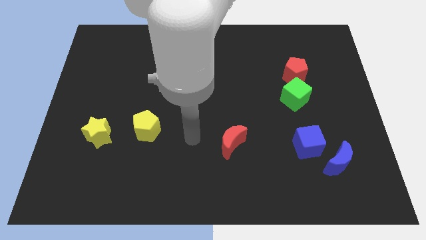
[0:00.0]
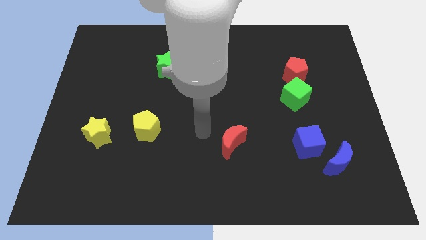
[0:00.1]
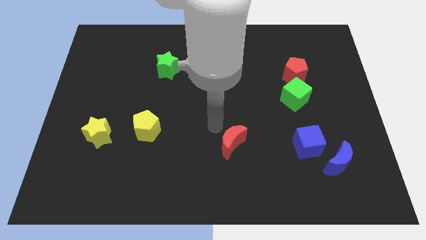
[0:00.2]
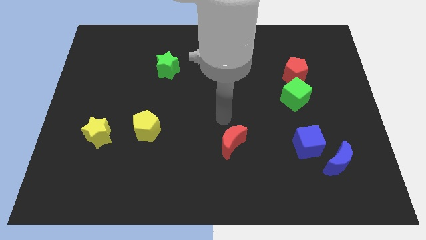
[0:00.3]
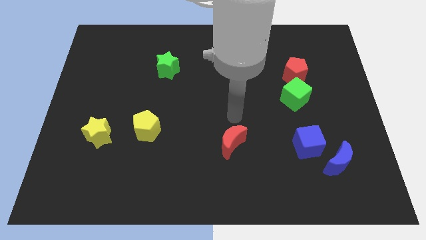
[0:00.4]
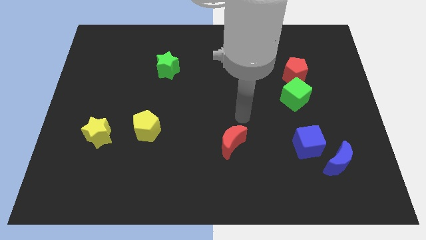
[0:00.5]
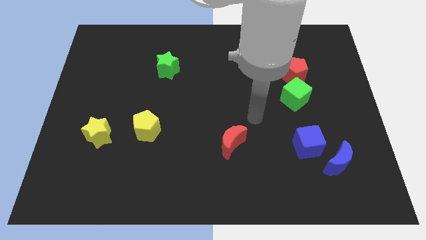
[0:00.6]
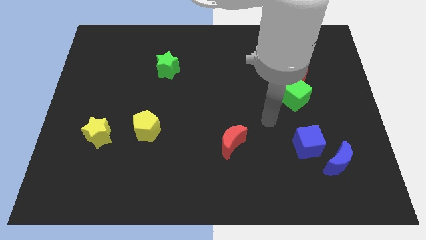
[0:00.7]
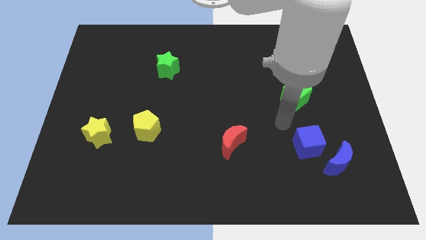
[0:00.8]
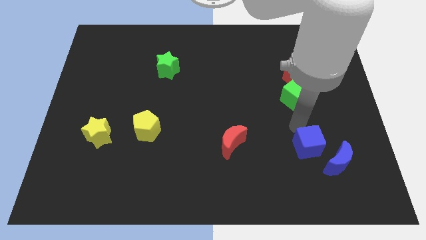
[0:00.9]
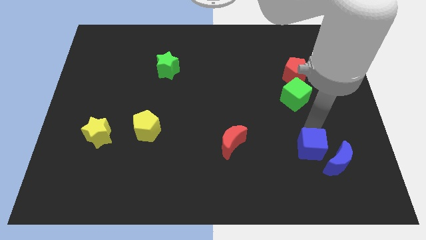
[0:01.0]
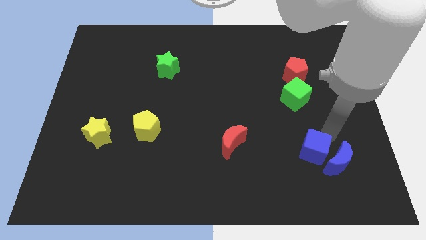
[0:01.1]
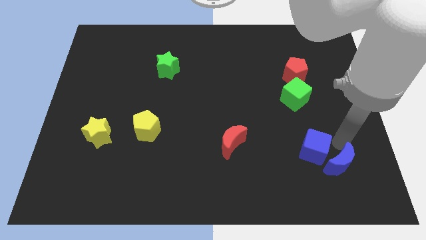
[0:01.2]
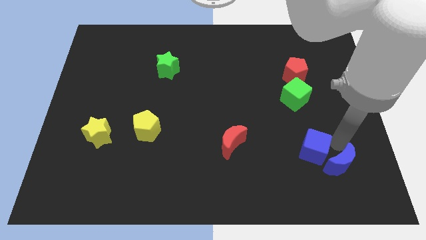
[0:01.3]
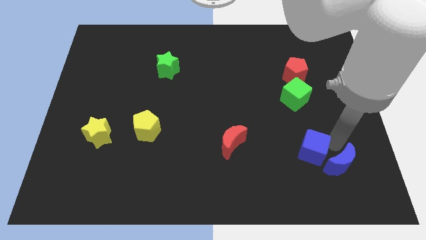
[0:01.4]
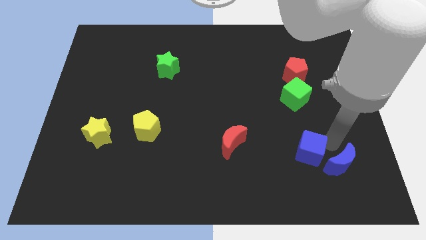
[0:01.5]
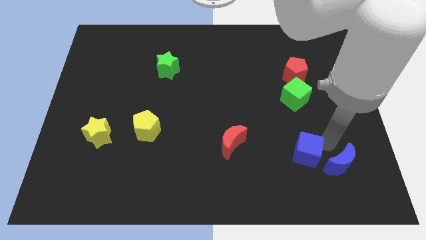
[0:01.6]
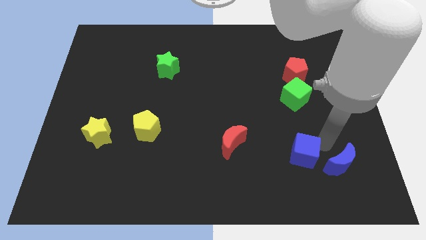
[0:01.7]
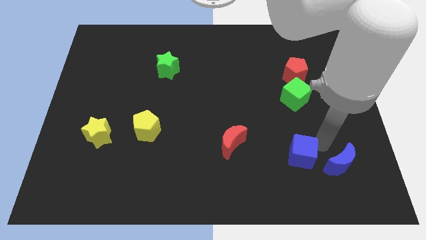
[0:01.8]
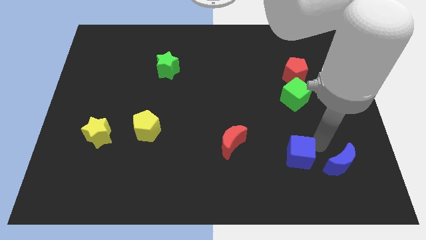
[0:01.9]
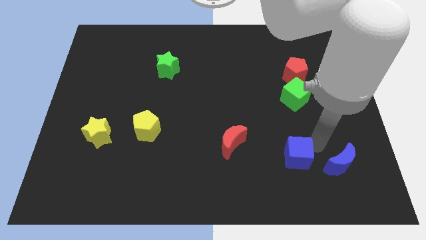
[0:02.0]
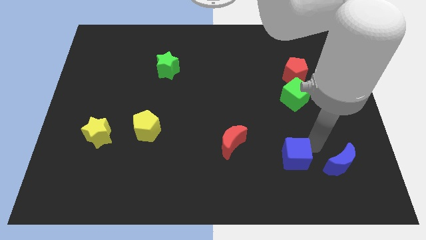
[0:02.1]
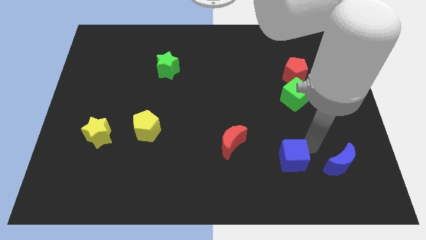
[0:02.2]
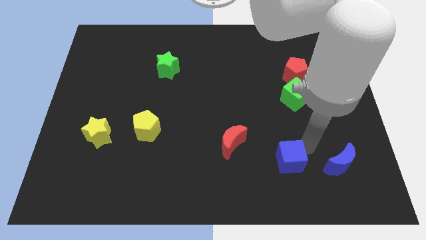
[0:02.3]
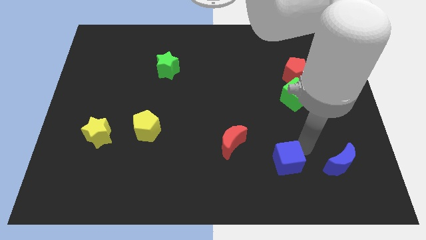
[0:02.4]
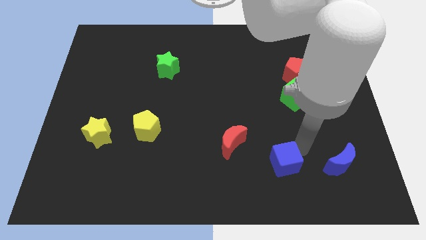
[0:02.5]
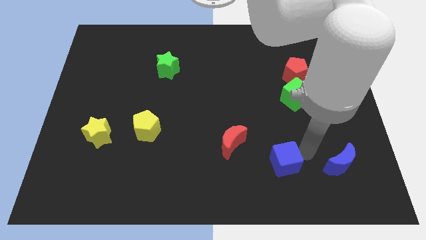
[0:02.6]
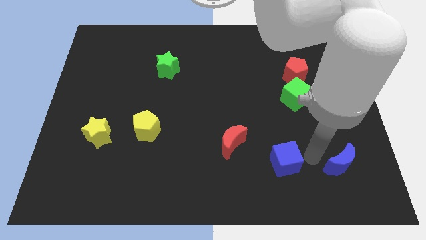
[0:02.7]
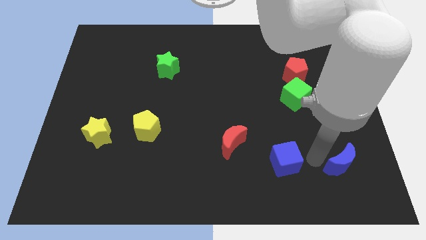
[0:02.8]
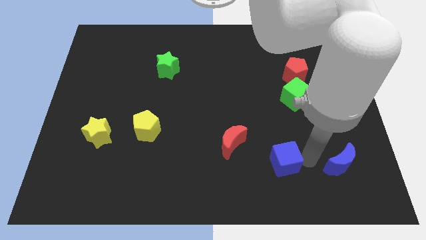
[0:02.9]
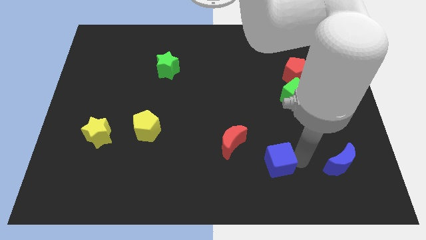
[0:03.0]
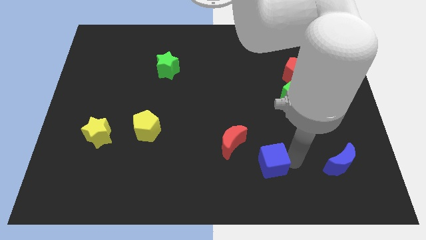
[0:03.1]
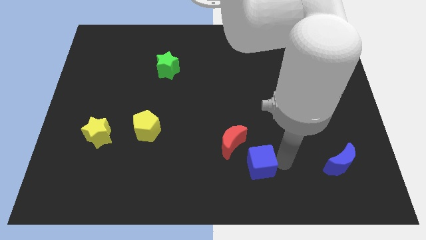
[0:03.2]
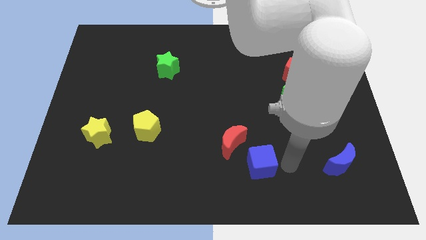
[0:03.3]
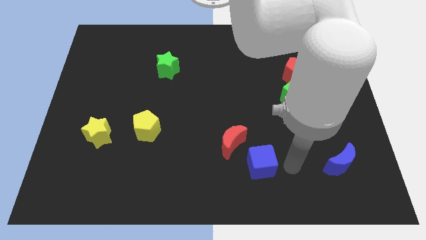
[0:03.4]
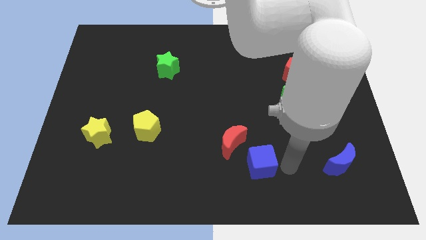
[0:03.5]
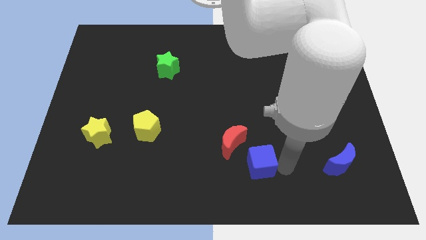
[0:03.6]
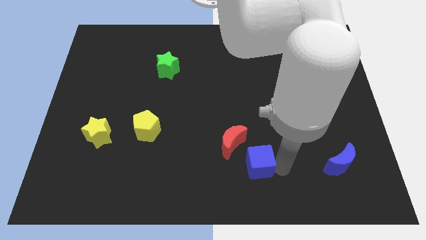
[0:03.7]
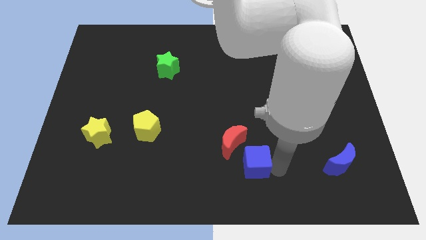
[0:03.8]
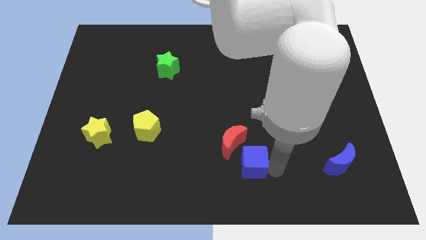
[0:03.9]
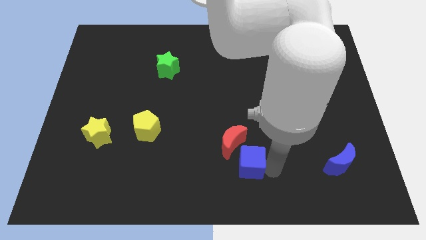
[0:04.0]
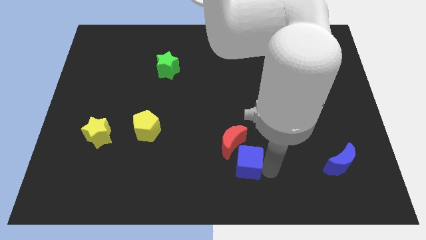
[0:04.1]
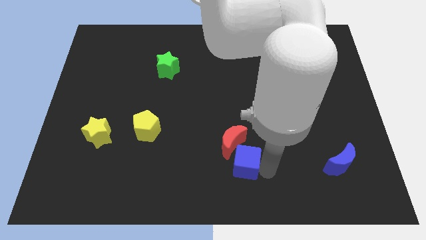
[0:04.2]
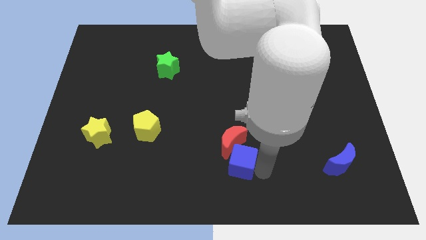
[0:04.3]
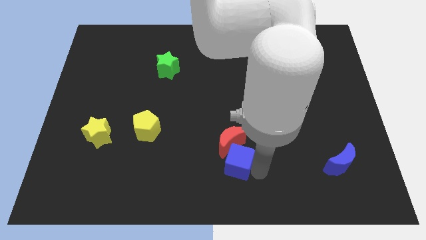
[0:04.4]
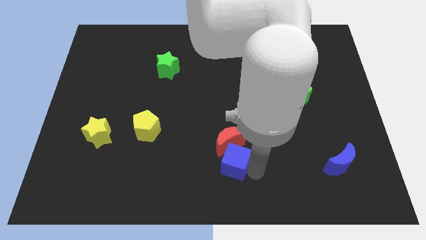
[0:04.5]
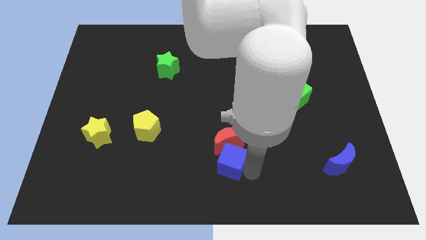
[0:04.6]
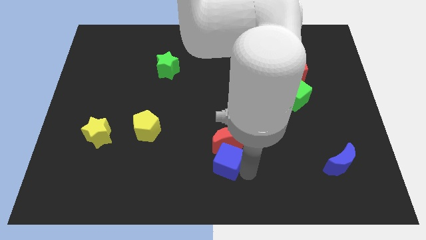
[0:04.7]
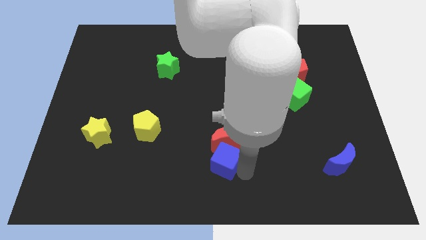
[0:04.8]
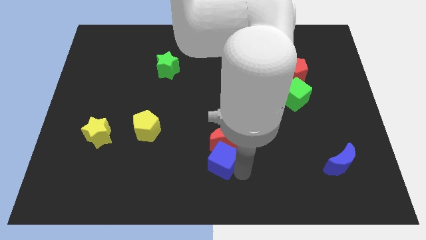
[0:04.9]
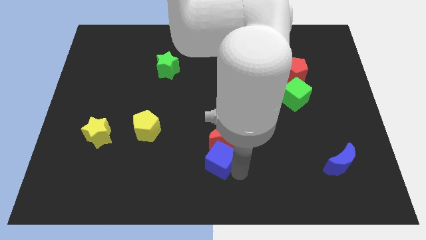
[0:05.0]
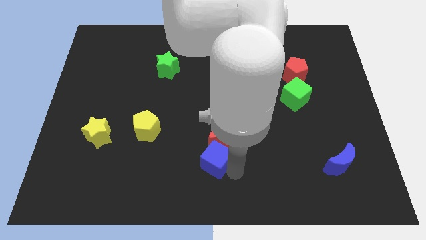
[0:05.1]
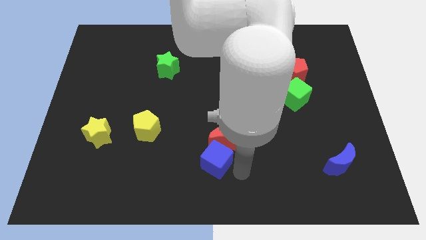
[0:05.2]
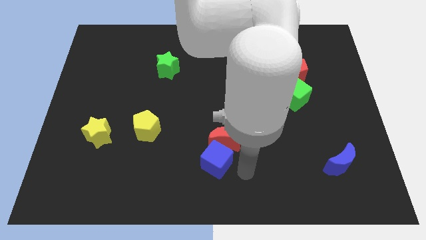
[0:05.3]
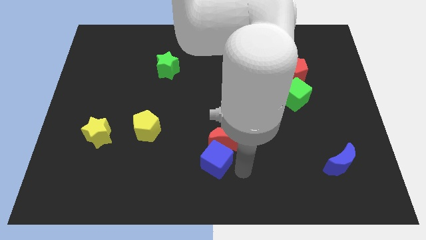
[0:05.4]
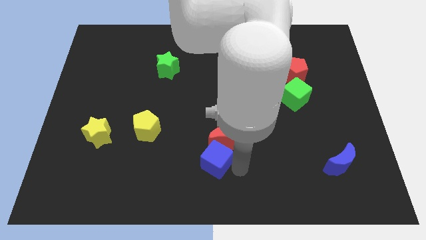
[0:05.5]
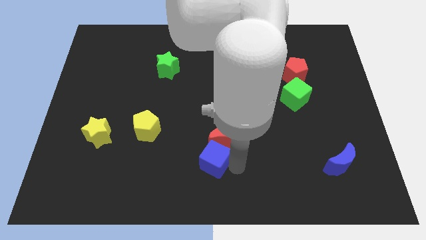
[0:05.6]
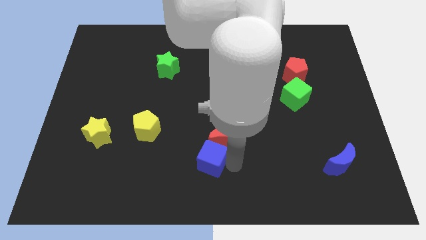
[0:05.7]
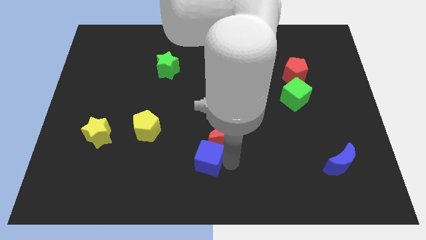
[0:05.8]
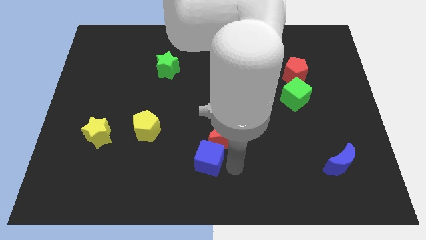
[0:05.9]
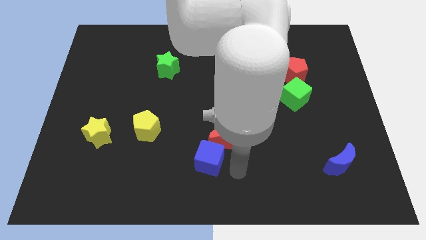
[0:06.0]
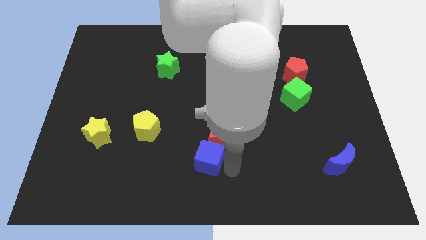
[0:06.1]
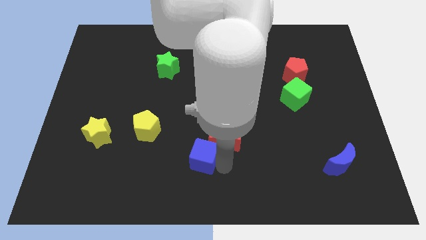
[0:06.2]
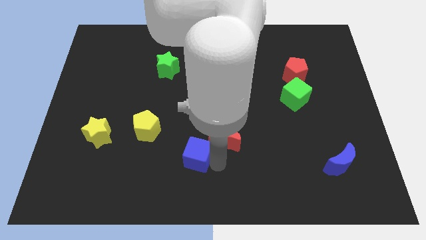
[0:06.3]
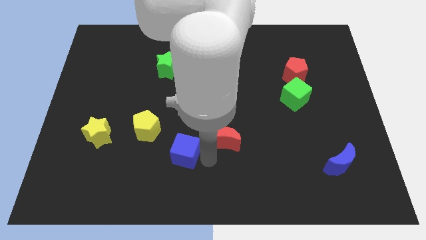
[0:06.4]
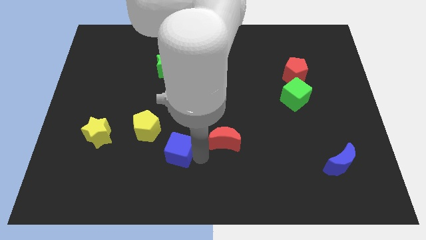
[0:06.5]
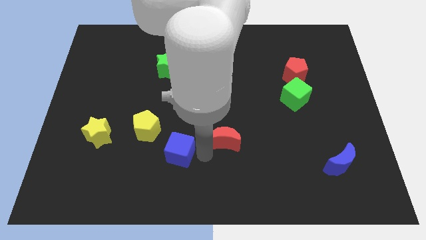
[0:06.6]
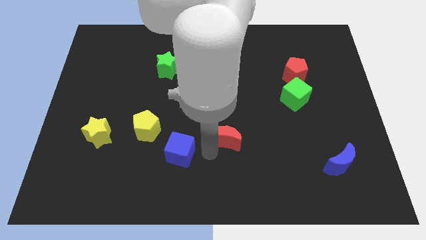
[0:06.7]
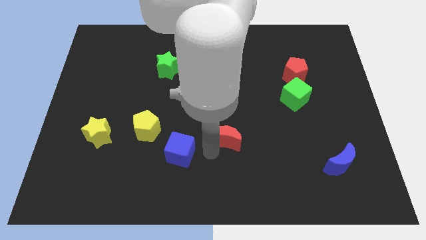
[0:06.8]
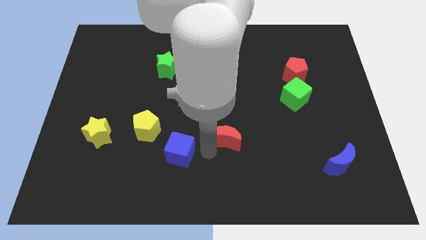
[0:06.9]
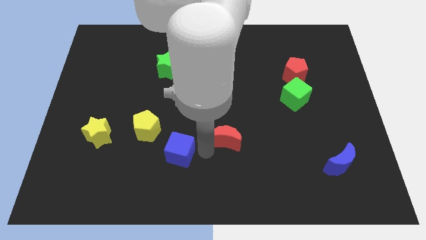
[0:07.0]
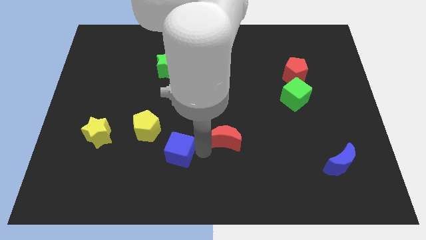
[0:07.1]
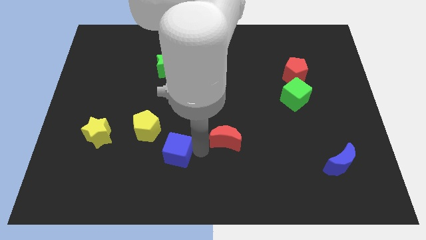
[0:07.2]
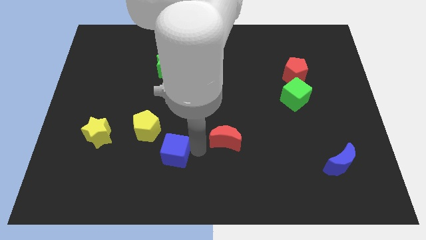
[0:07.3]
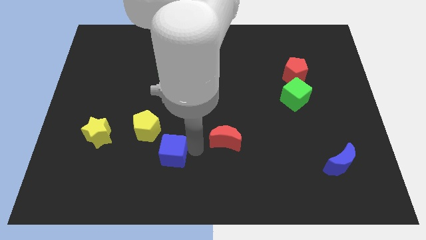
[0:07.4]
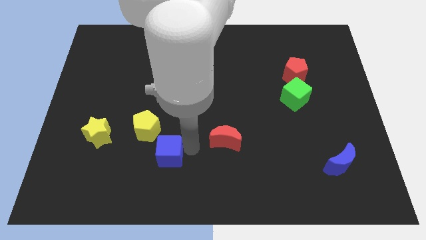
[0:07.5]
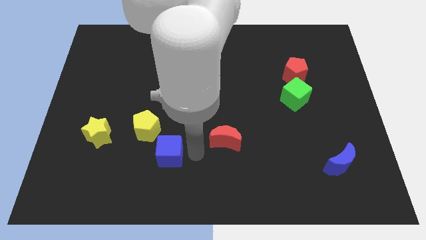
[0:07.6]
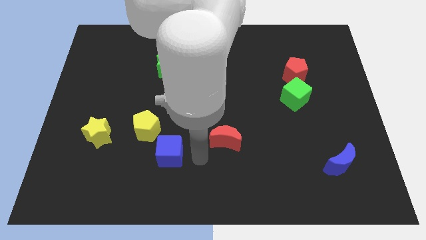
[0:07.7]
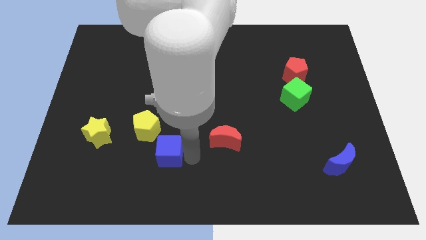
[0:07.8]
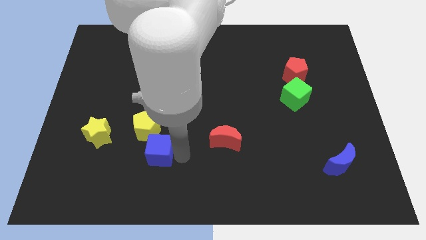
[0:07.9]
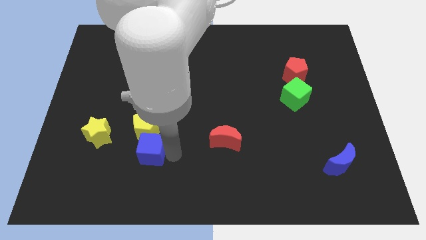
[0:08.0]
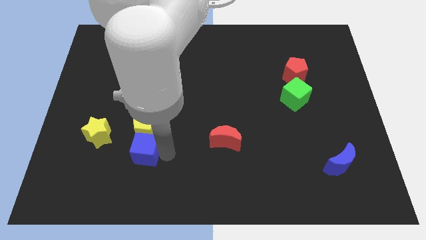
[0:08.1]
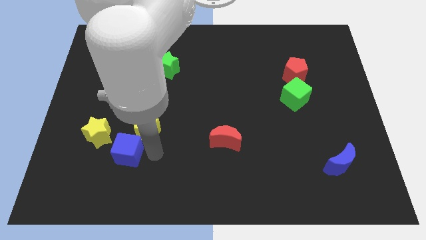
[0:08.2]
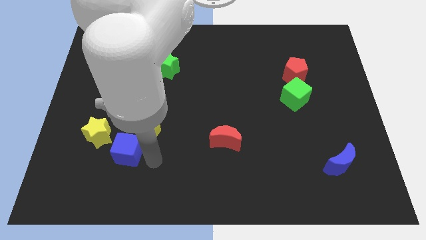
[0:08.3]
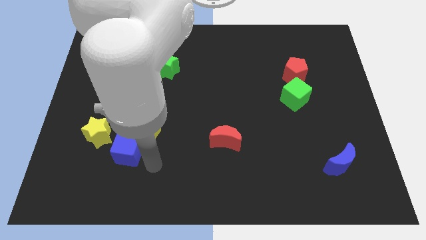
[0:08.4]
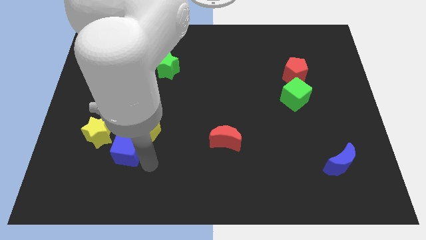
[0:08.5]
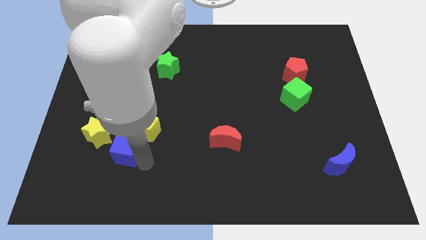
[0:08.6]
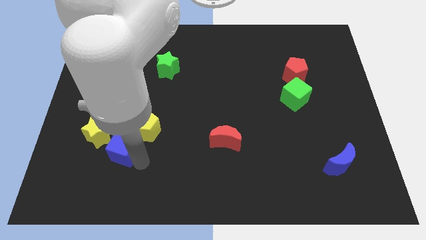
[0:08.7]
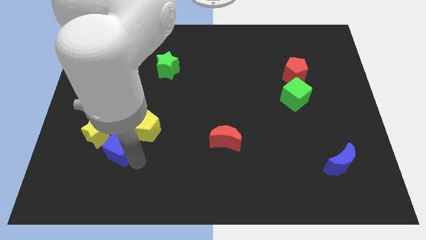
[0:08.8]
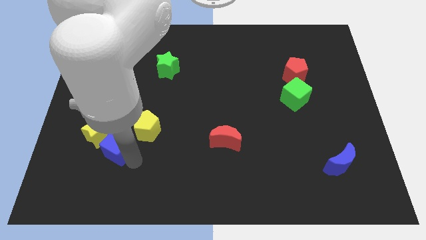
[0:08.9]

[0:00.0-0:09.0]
move the blue cube close to the yellow star
